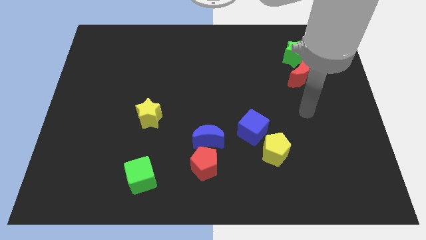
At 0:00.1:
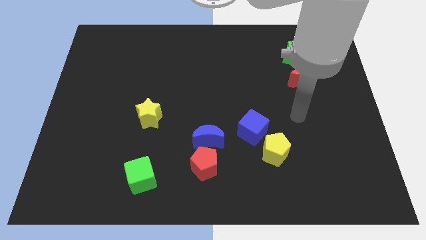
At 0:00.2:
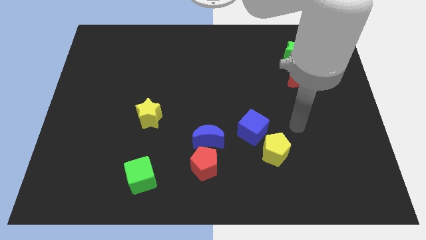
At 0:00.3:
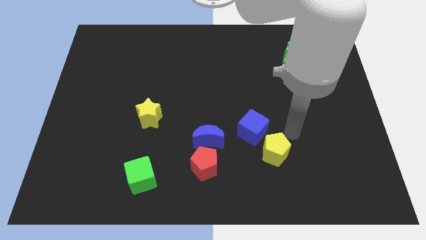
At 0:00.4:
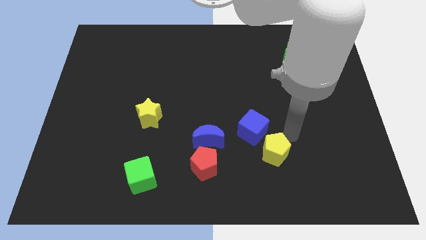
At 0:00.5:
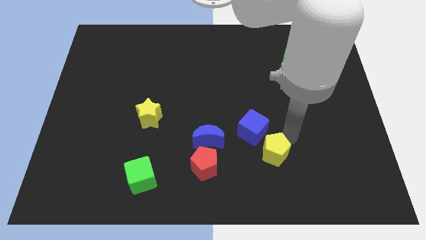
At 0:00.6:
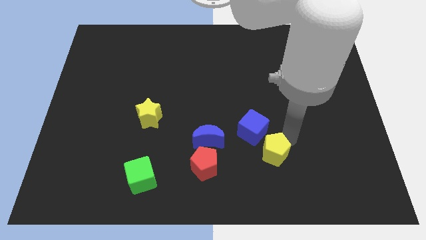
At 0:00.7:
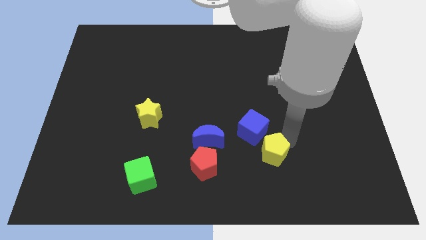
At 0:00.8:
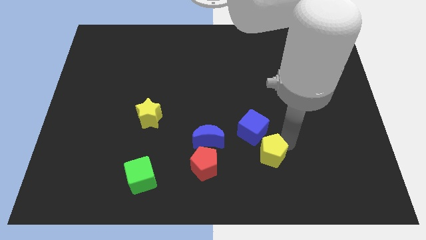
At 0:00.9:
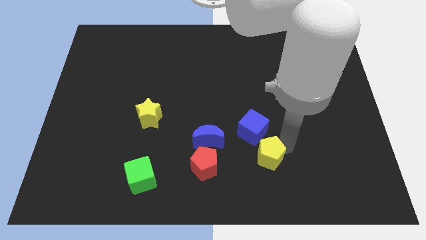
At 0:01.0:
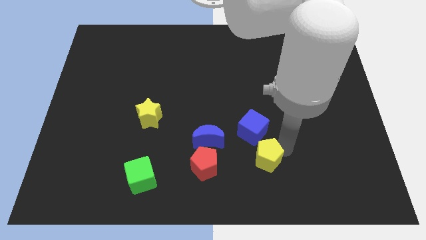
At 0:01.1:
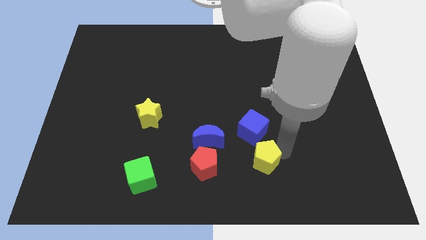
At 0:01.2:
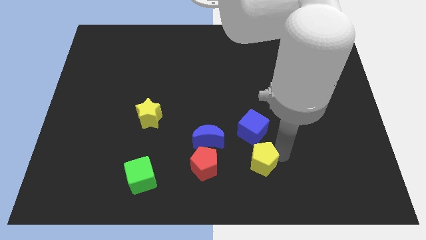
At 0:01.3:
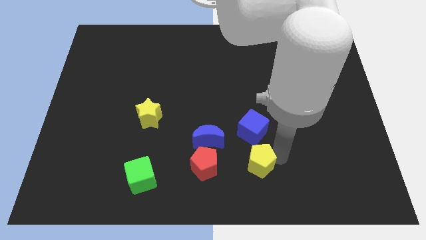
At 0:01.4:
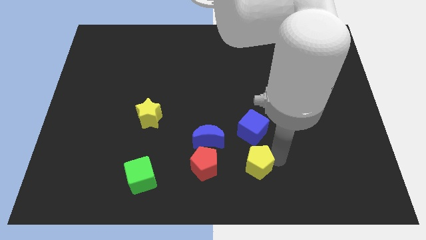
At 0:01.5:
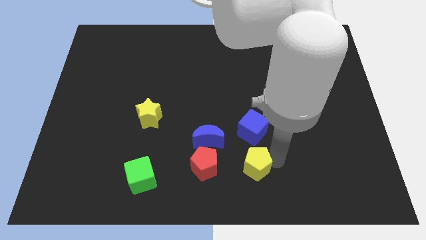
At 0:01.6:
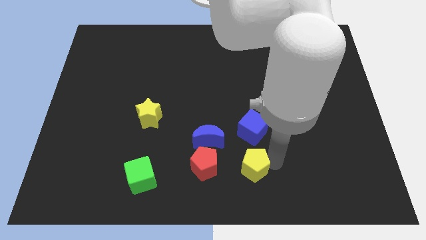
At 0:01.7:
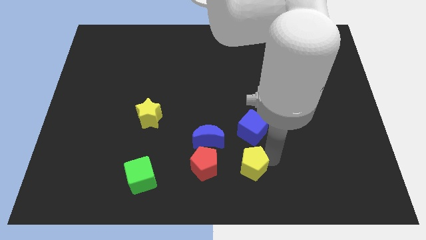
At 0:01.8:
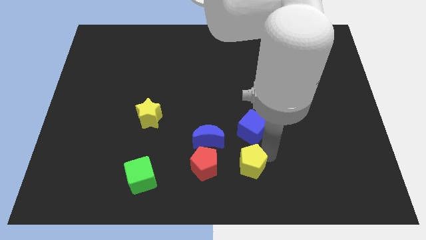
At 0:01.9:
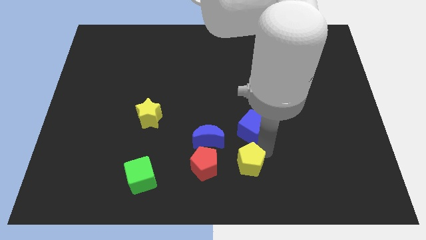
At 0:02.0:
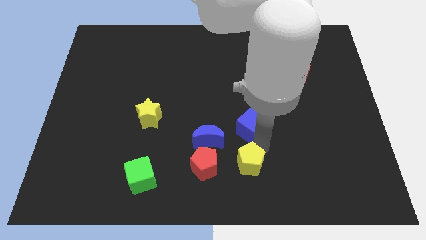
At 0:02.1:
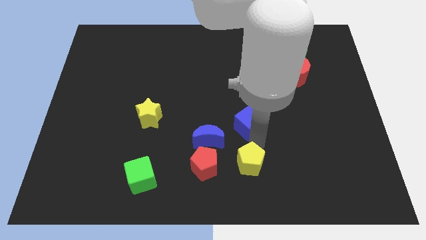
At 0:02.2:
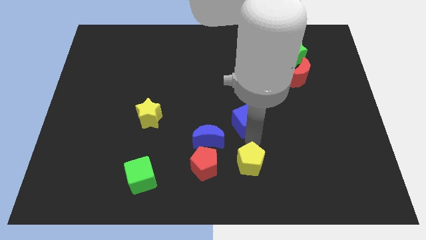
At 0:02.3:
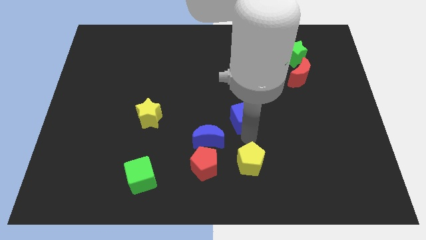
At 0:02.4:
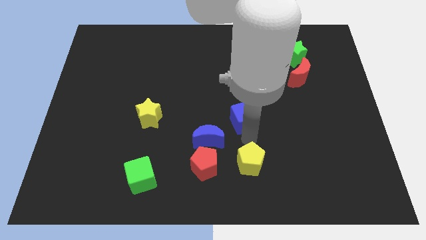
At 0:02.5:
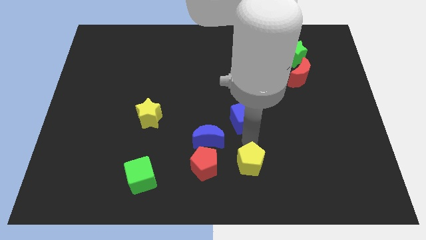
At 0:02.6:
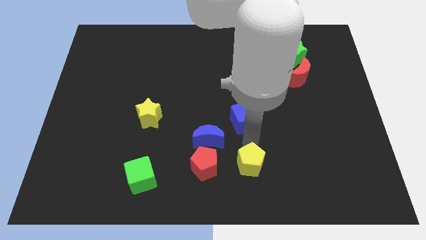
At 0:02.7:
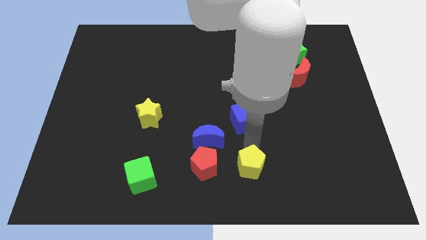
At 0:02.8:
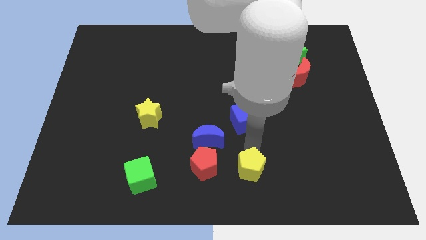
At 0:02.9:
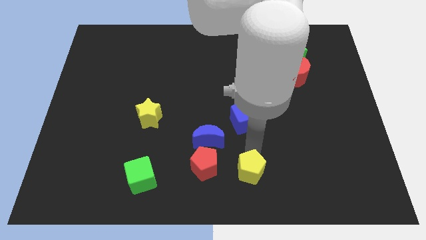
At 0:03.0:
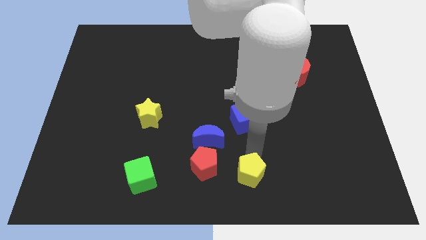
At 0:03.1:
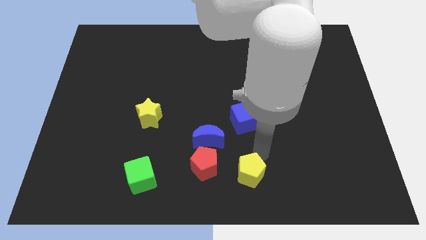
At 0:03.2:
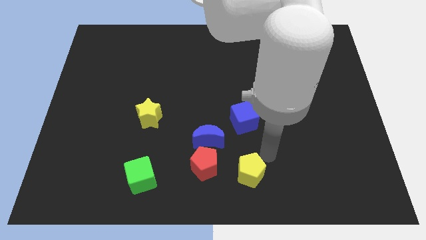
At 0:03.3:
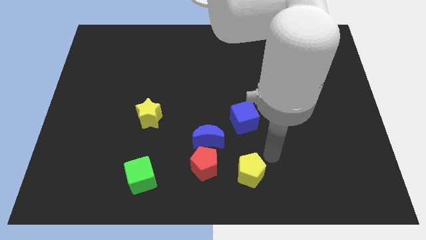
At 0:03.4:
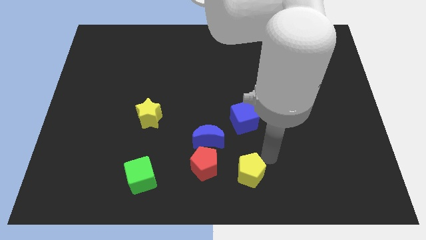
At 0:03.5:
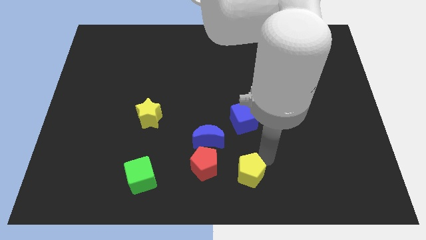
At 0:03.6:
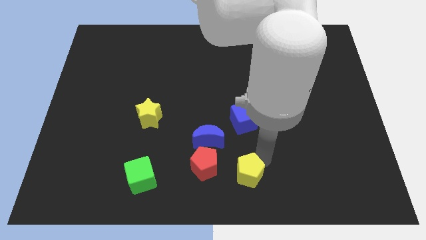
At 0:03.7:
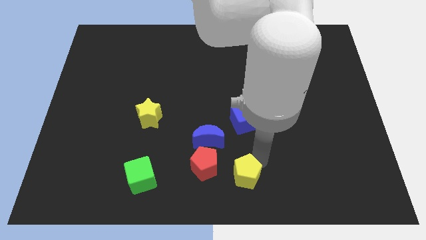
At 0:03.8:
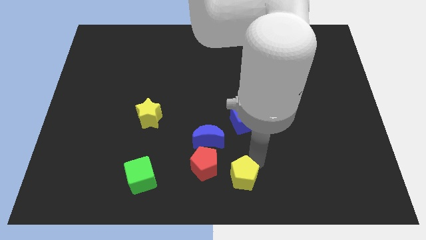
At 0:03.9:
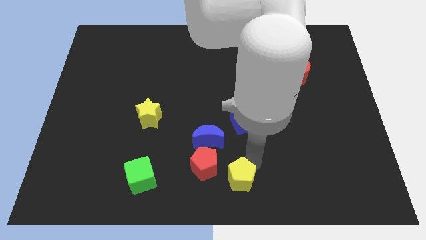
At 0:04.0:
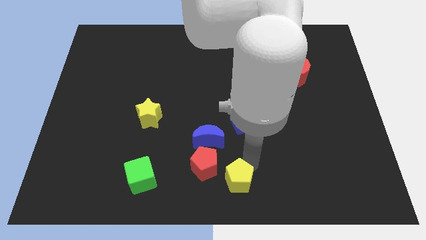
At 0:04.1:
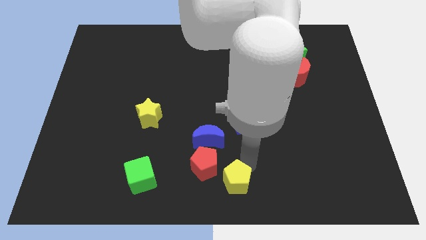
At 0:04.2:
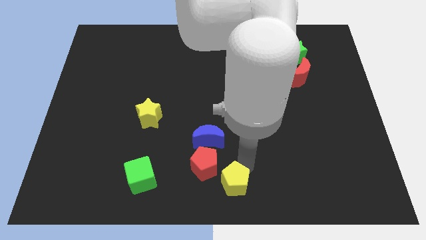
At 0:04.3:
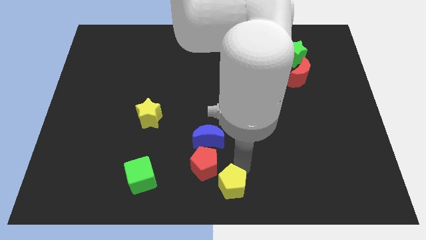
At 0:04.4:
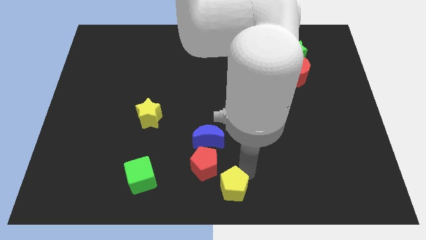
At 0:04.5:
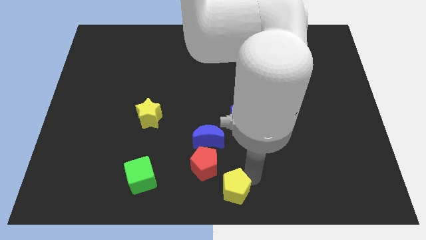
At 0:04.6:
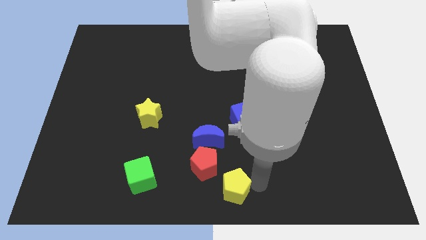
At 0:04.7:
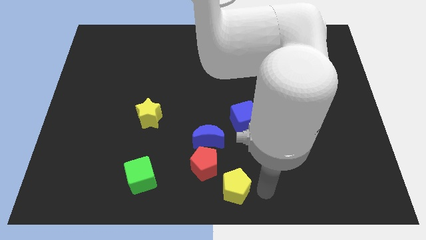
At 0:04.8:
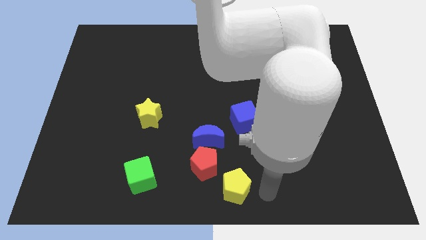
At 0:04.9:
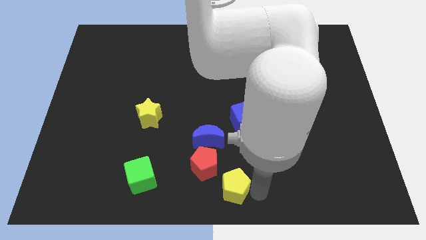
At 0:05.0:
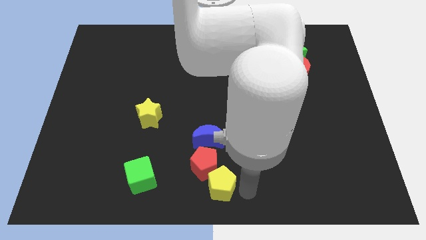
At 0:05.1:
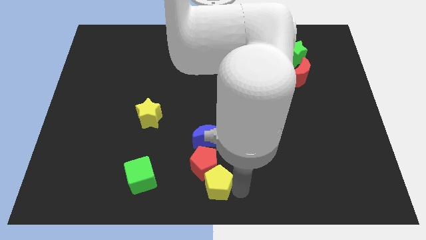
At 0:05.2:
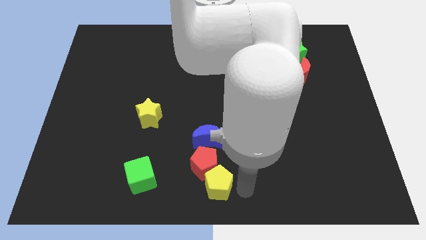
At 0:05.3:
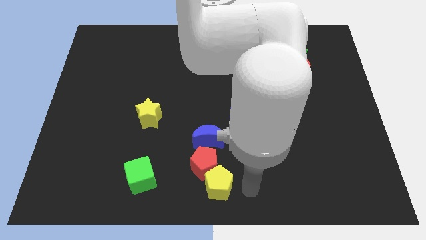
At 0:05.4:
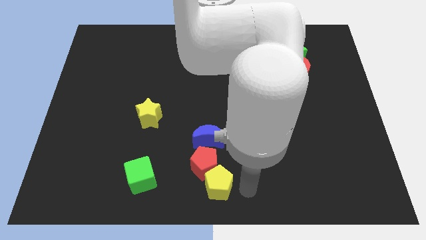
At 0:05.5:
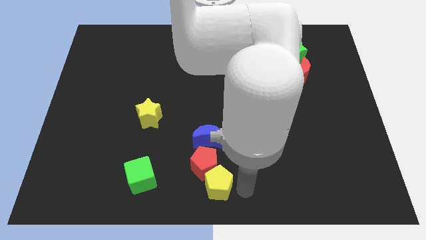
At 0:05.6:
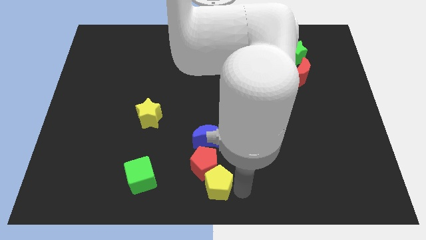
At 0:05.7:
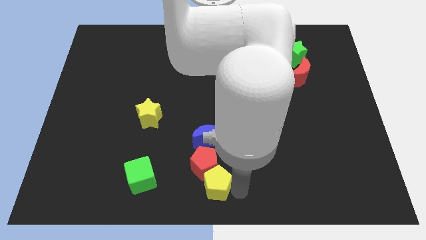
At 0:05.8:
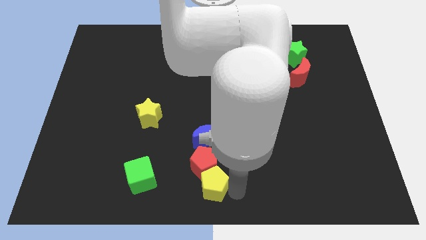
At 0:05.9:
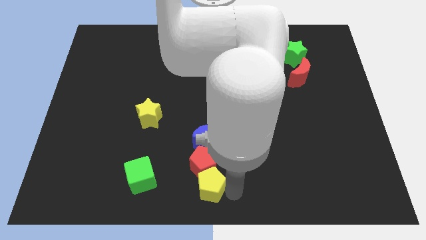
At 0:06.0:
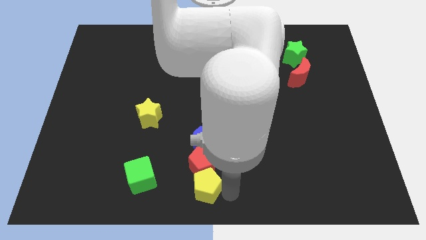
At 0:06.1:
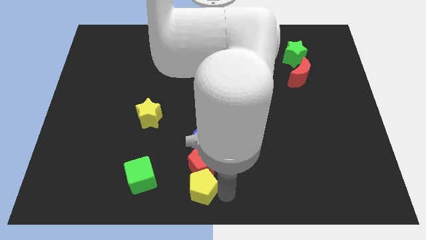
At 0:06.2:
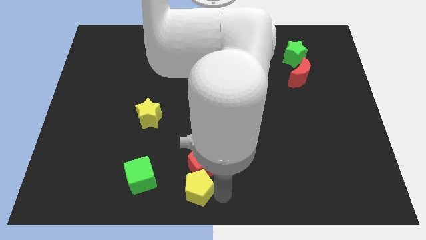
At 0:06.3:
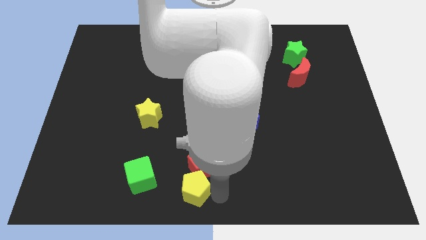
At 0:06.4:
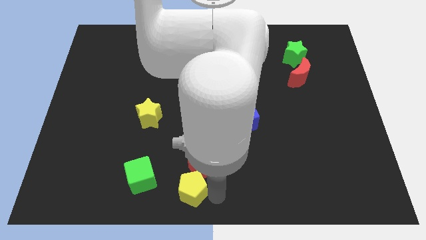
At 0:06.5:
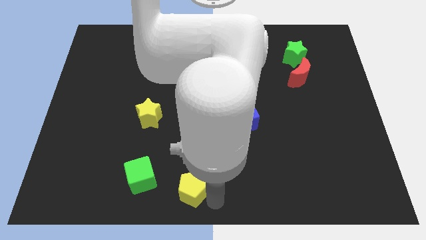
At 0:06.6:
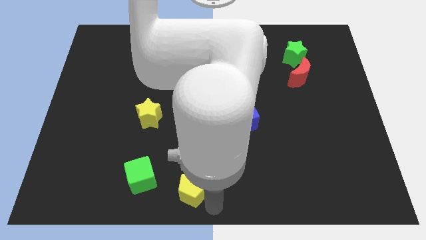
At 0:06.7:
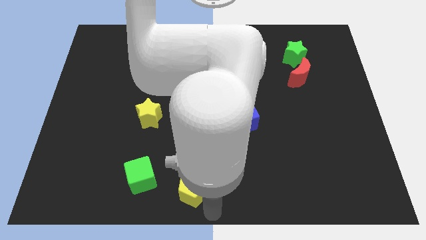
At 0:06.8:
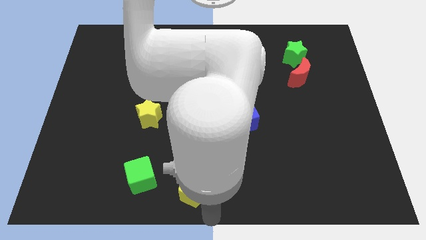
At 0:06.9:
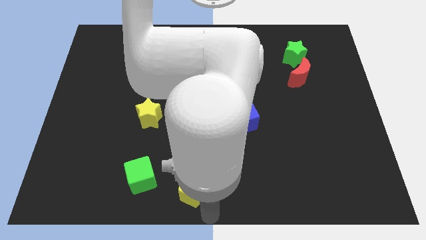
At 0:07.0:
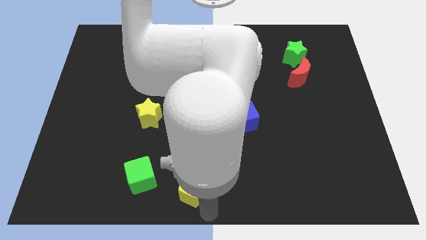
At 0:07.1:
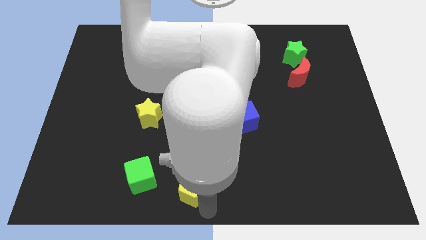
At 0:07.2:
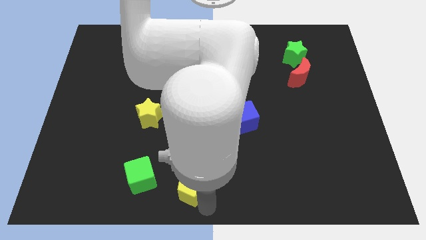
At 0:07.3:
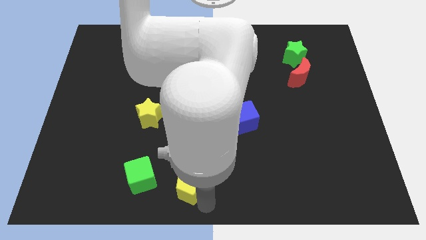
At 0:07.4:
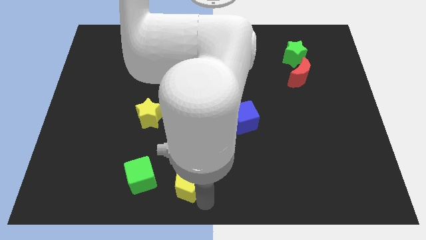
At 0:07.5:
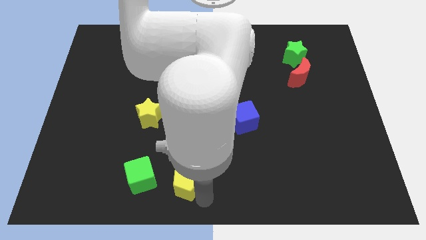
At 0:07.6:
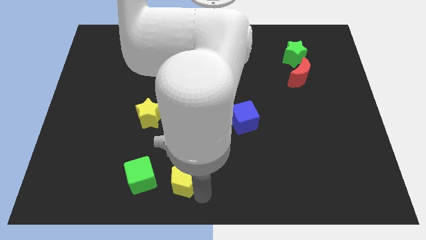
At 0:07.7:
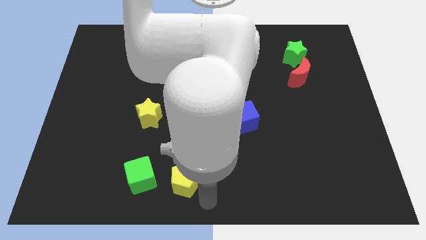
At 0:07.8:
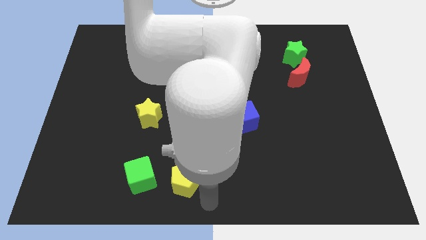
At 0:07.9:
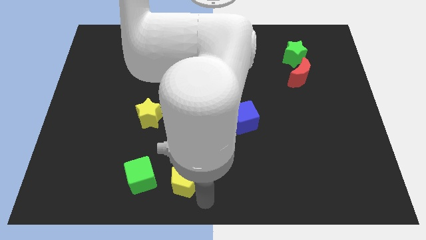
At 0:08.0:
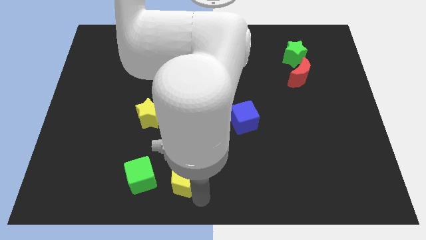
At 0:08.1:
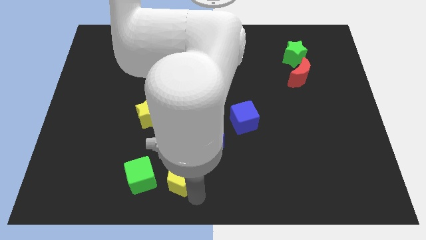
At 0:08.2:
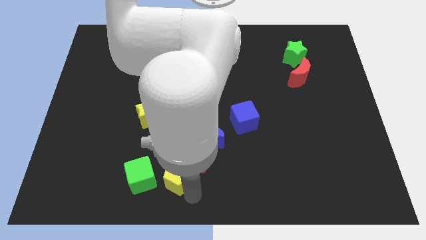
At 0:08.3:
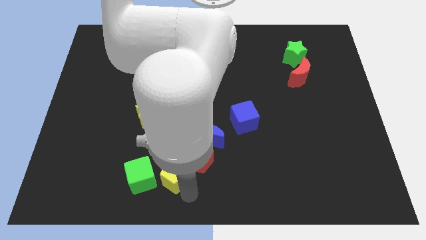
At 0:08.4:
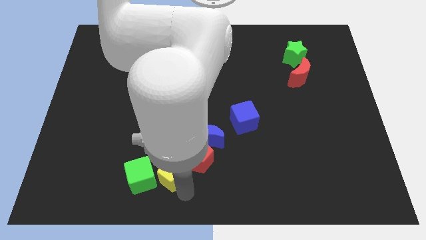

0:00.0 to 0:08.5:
push the yellow pentagon to the left
